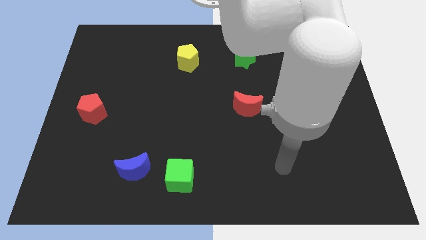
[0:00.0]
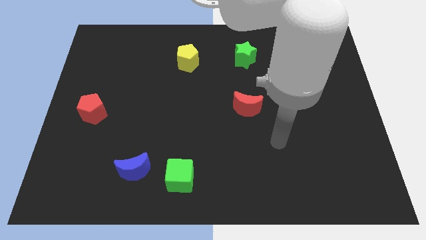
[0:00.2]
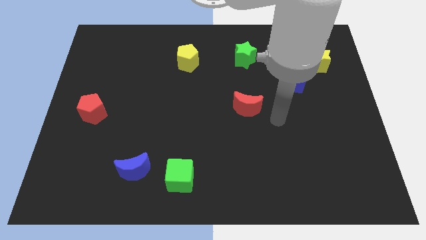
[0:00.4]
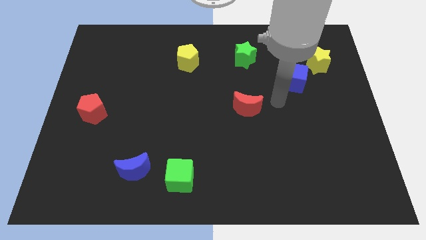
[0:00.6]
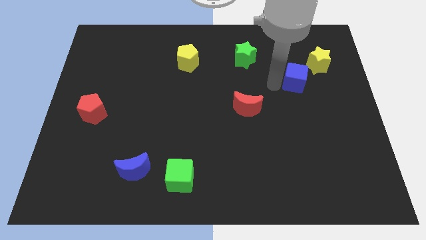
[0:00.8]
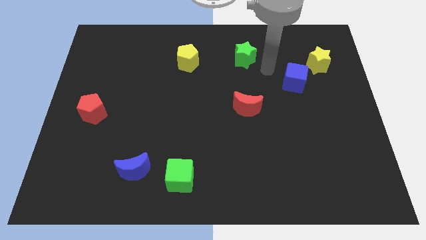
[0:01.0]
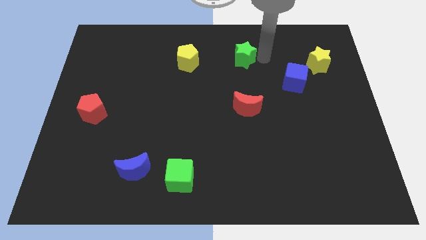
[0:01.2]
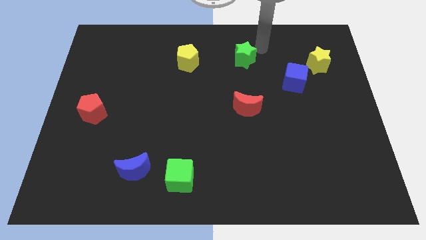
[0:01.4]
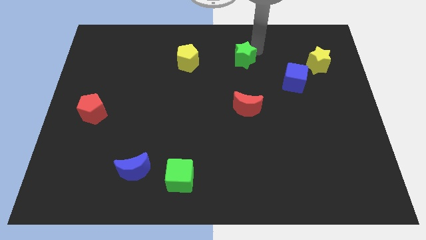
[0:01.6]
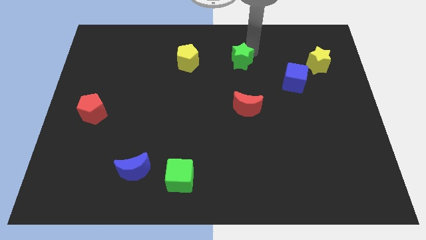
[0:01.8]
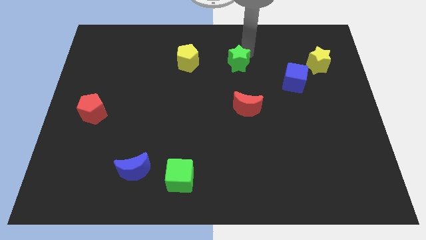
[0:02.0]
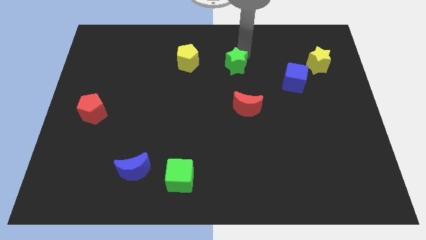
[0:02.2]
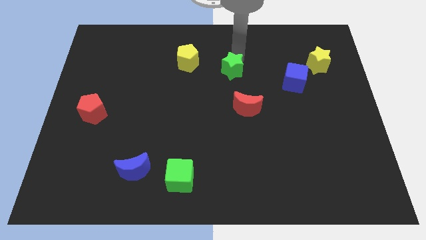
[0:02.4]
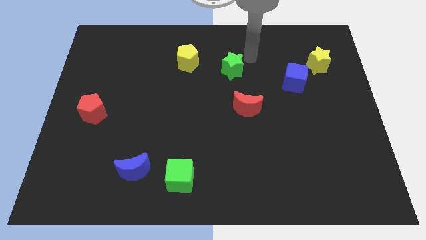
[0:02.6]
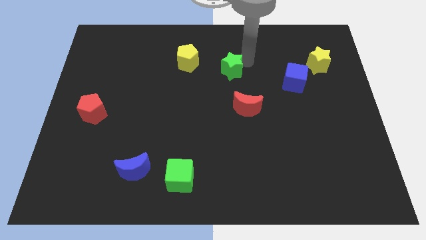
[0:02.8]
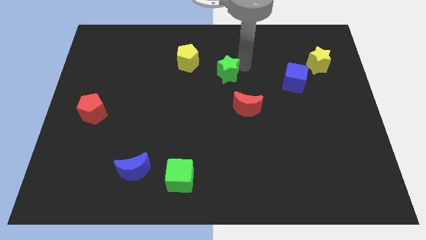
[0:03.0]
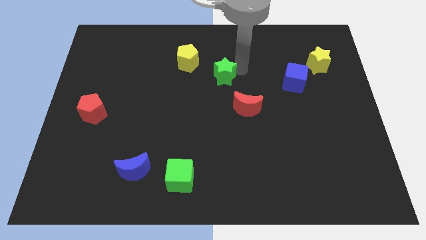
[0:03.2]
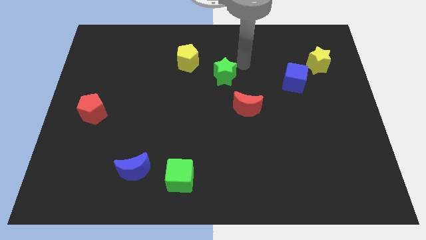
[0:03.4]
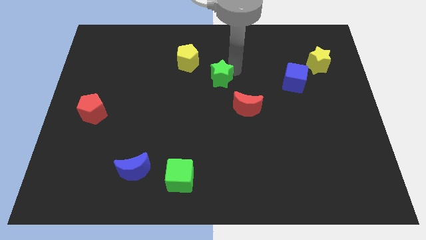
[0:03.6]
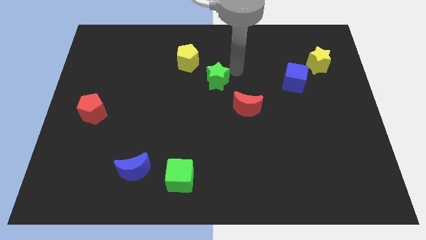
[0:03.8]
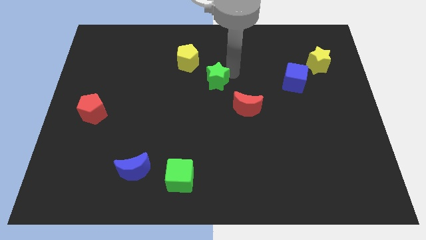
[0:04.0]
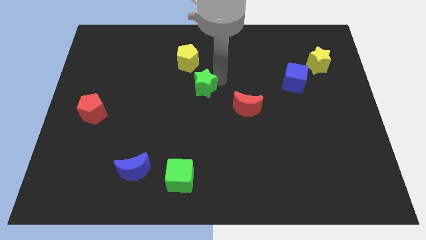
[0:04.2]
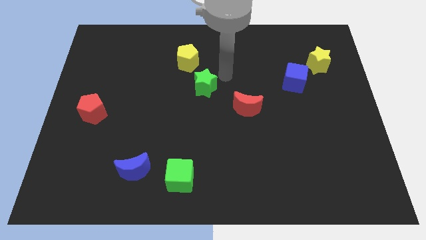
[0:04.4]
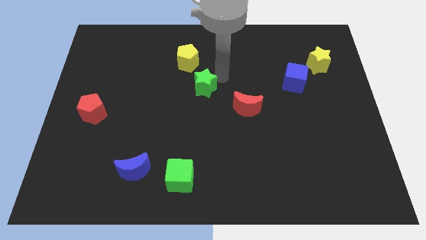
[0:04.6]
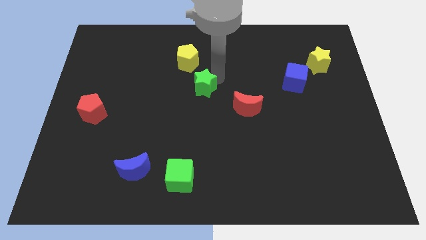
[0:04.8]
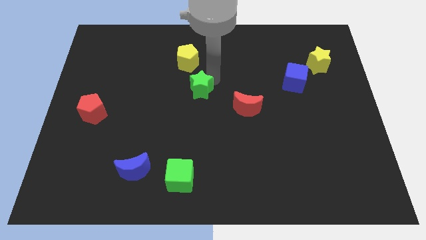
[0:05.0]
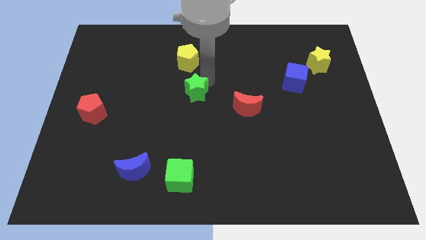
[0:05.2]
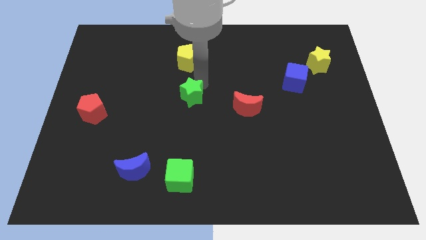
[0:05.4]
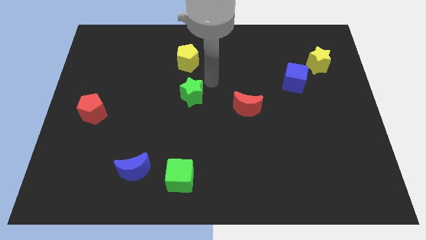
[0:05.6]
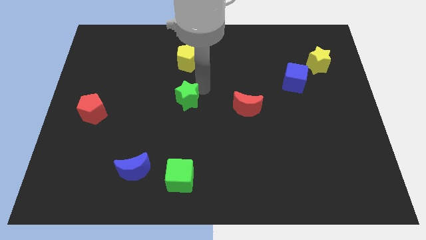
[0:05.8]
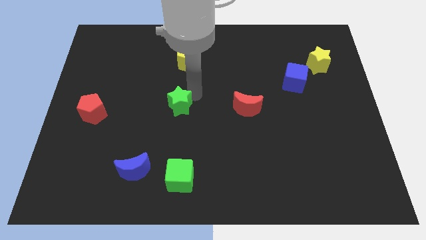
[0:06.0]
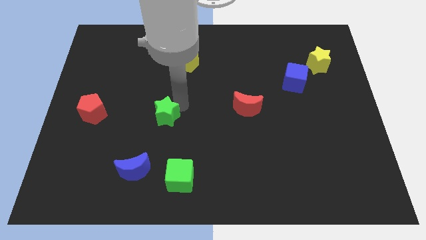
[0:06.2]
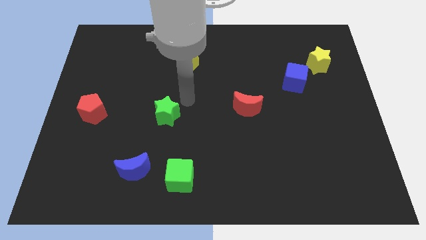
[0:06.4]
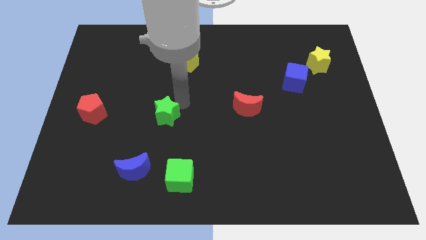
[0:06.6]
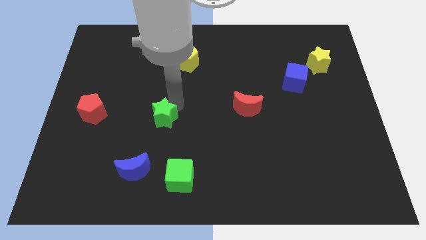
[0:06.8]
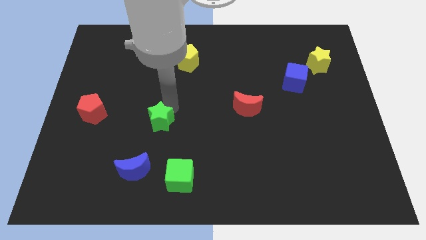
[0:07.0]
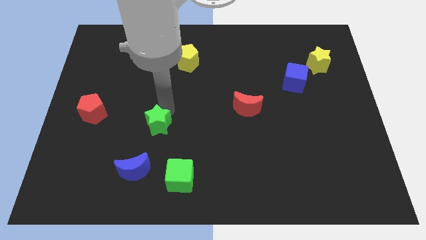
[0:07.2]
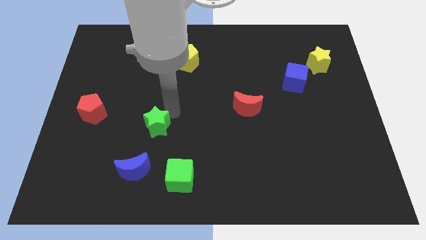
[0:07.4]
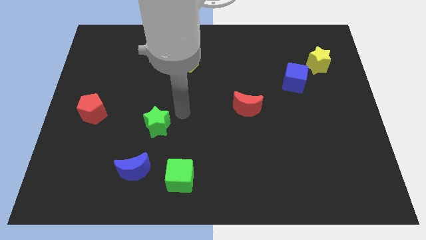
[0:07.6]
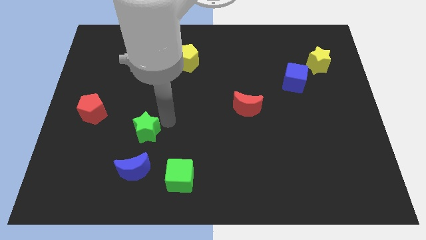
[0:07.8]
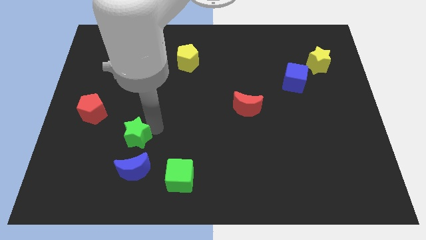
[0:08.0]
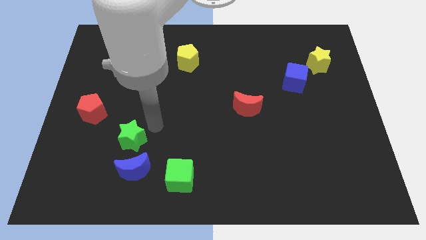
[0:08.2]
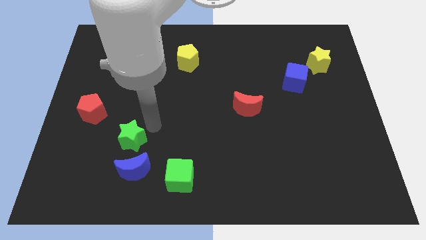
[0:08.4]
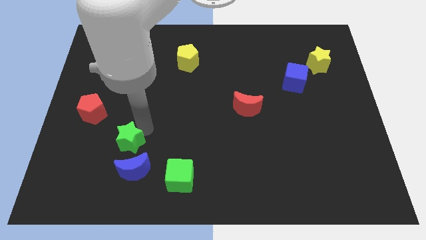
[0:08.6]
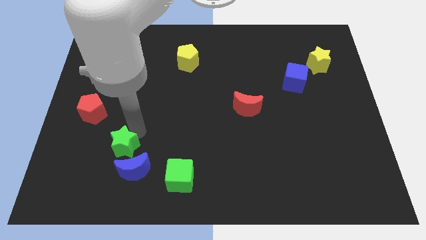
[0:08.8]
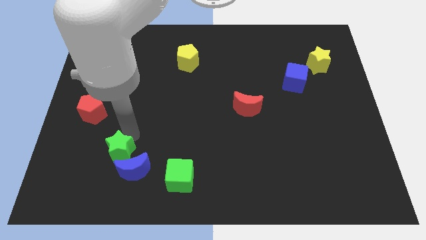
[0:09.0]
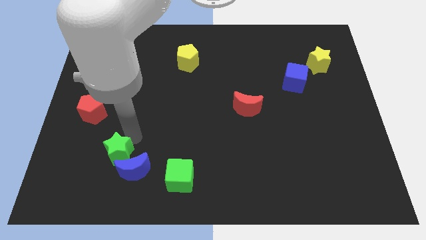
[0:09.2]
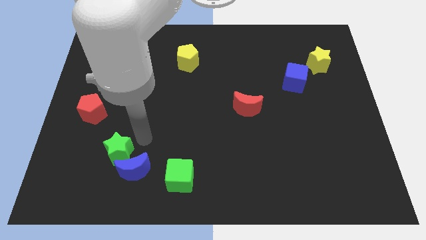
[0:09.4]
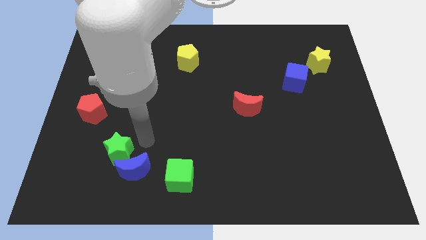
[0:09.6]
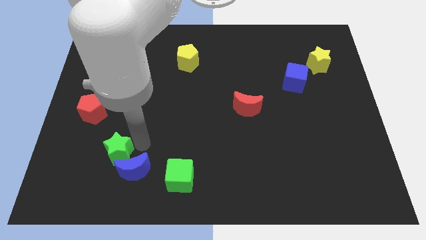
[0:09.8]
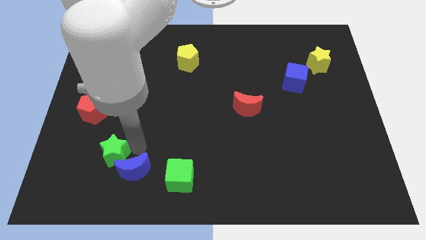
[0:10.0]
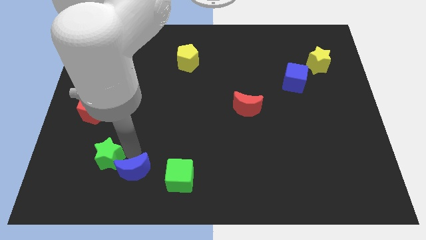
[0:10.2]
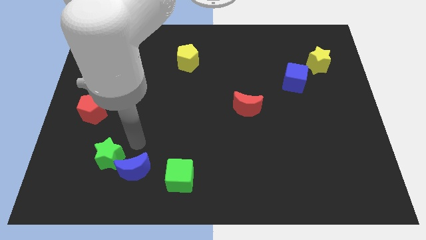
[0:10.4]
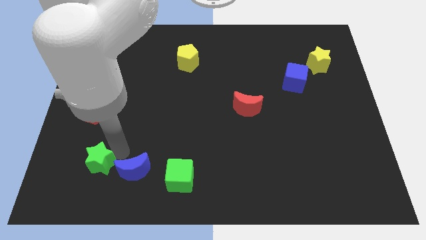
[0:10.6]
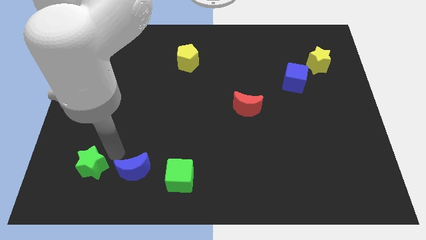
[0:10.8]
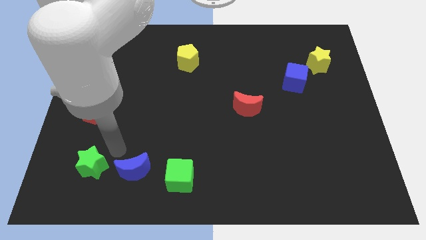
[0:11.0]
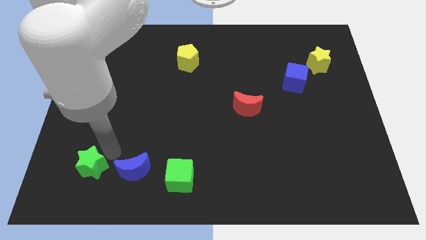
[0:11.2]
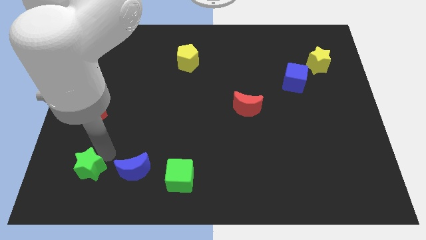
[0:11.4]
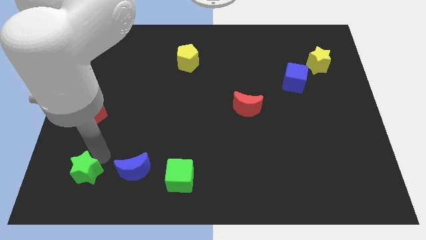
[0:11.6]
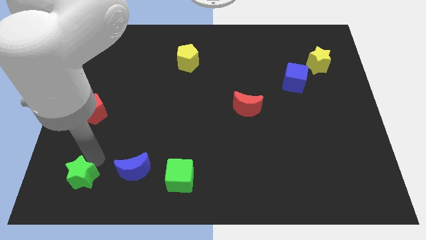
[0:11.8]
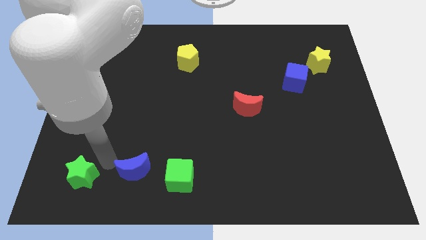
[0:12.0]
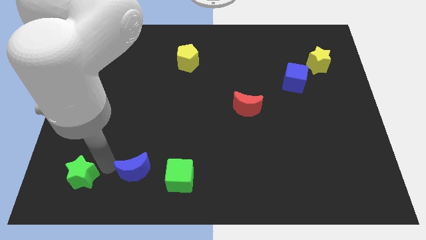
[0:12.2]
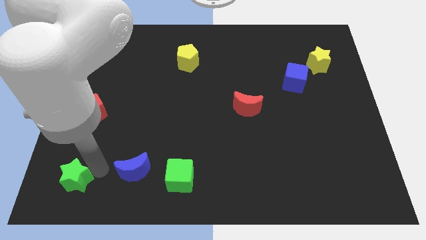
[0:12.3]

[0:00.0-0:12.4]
put the green star to the bottom left corner
